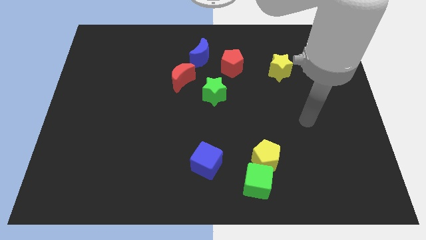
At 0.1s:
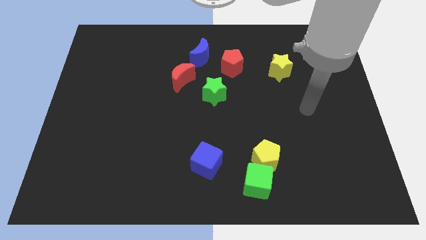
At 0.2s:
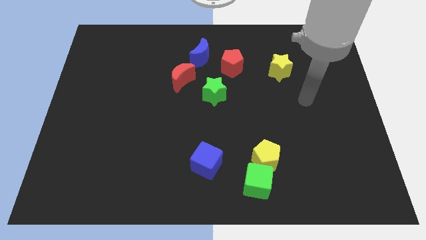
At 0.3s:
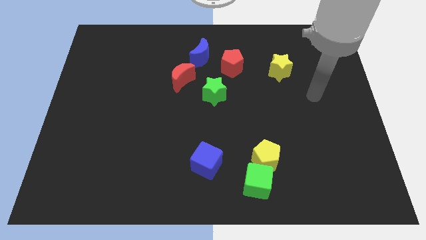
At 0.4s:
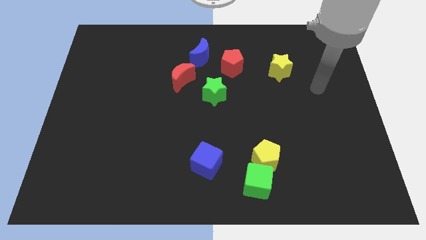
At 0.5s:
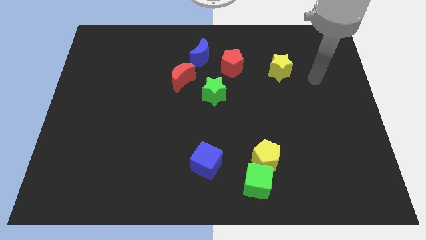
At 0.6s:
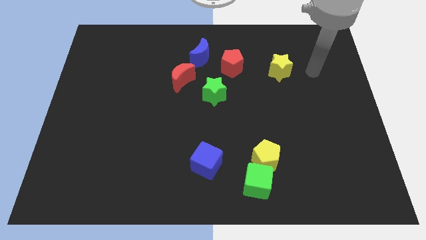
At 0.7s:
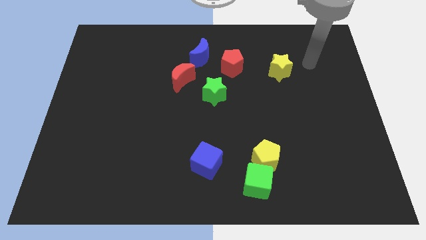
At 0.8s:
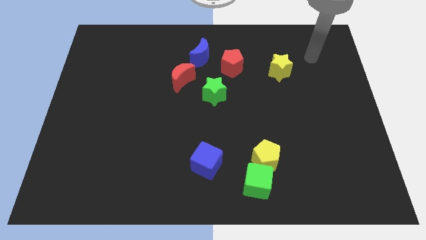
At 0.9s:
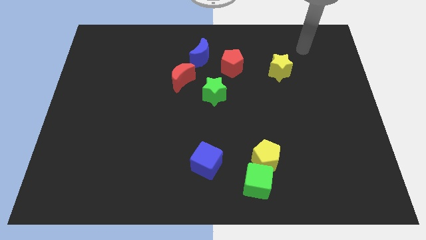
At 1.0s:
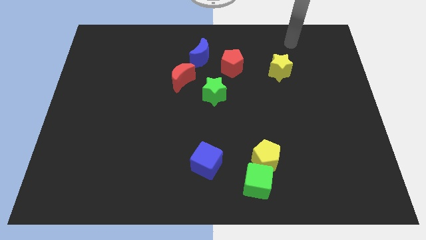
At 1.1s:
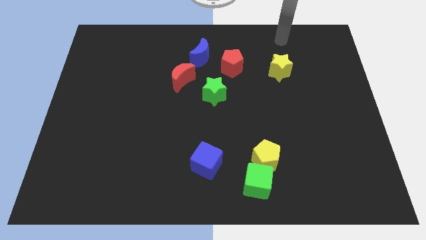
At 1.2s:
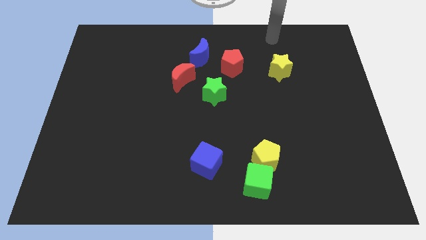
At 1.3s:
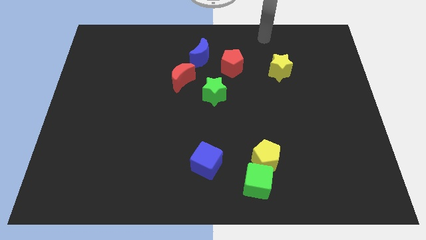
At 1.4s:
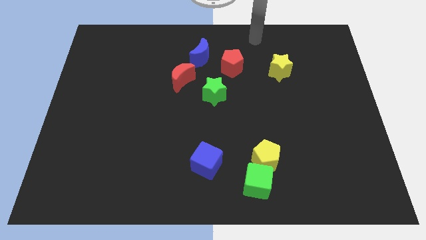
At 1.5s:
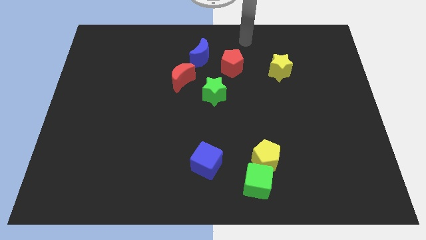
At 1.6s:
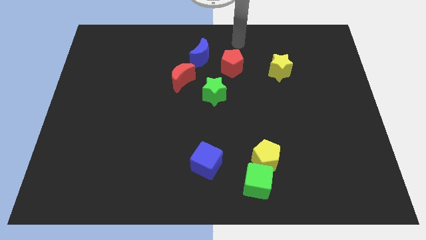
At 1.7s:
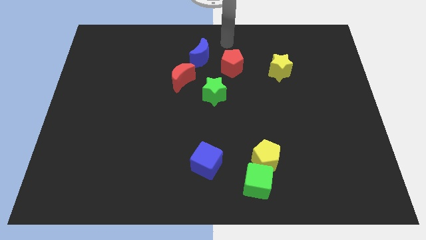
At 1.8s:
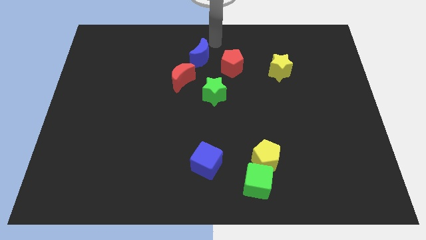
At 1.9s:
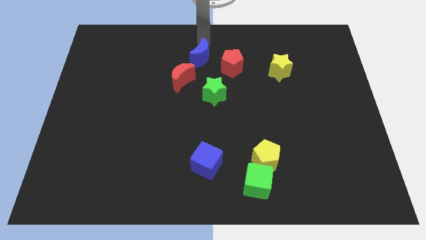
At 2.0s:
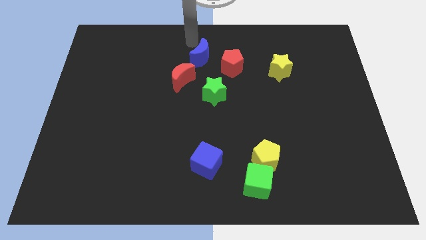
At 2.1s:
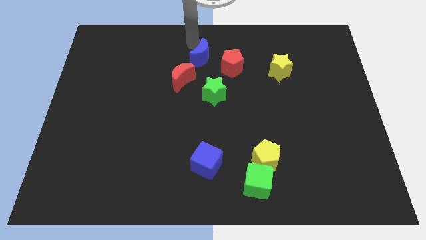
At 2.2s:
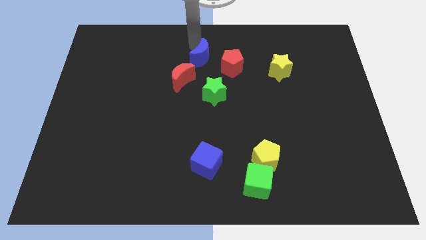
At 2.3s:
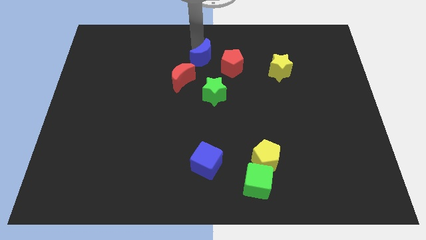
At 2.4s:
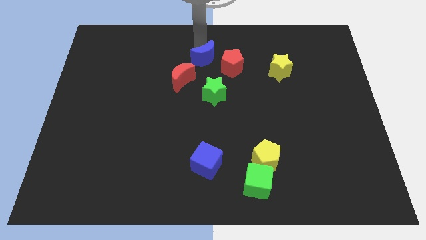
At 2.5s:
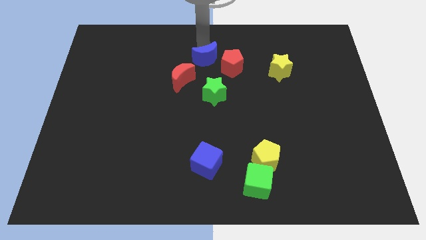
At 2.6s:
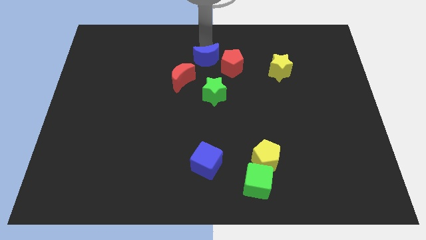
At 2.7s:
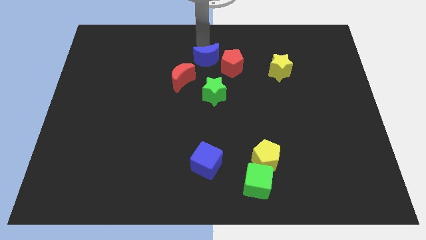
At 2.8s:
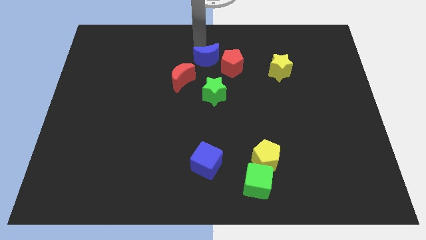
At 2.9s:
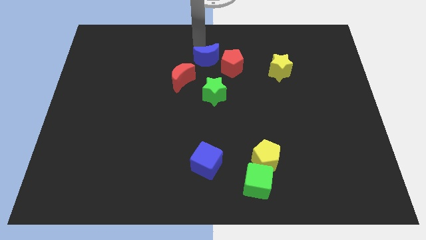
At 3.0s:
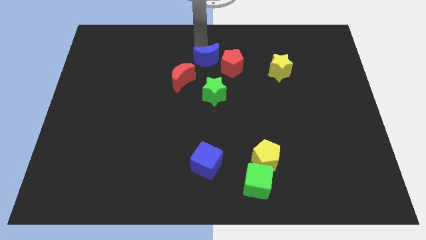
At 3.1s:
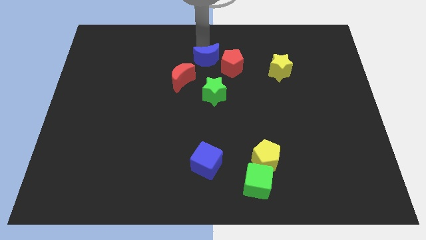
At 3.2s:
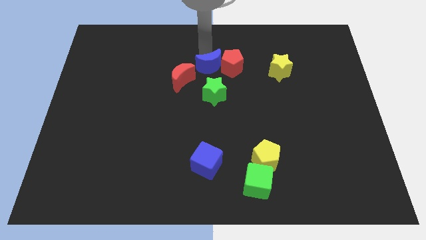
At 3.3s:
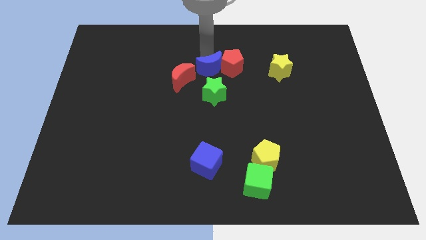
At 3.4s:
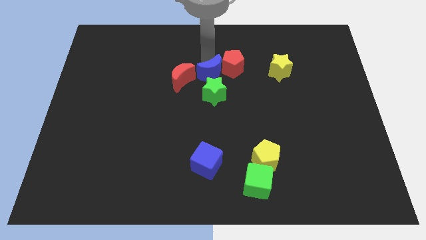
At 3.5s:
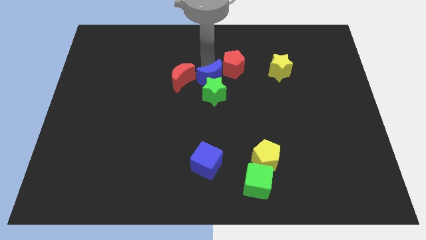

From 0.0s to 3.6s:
slightly push the blue moon diagonally down and to the right

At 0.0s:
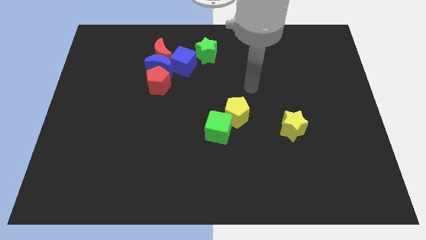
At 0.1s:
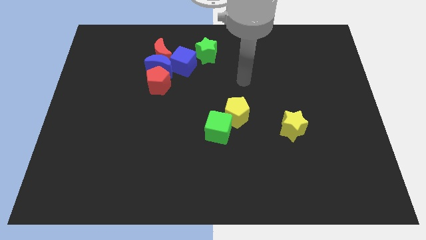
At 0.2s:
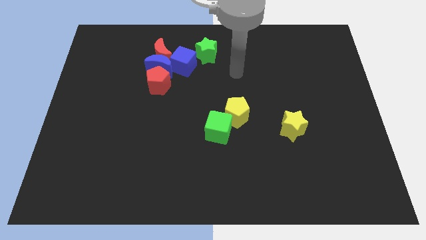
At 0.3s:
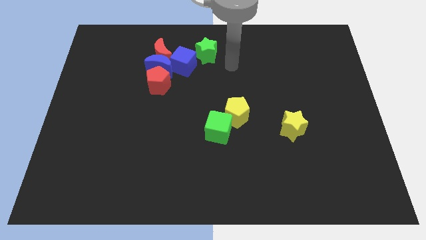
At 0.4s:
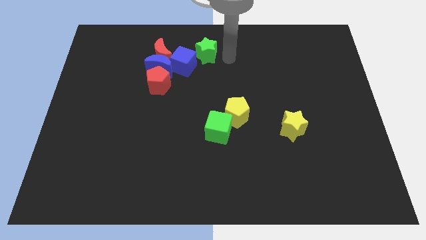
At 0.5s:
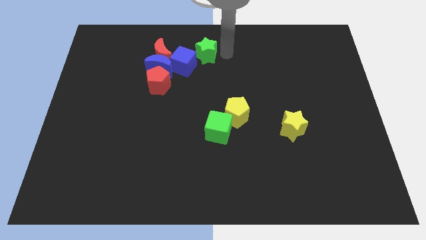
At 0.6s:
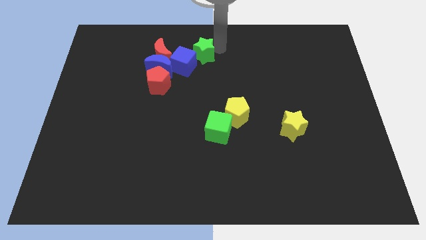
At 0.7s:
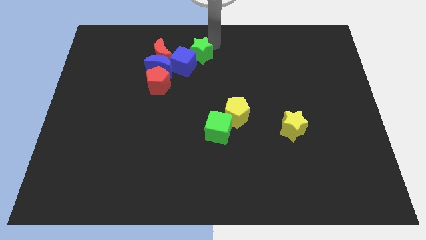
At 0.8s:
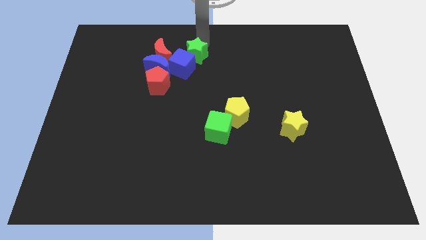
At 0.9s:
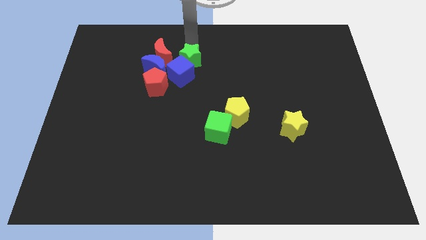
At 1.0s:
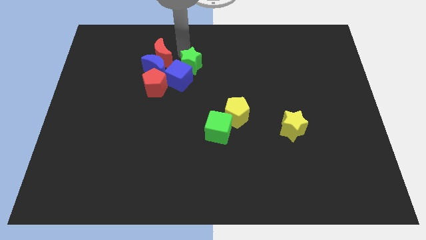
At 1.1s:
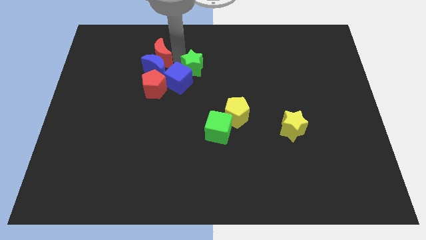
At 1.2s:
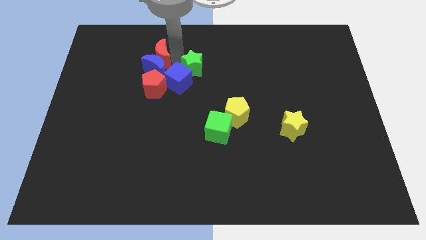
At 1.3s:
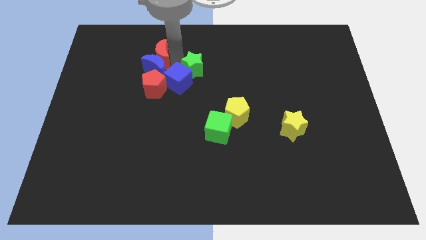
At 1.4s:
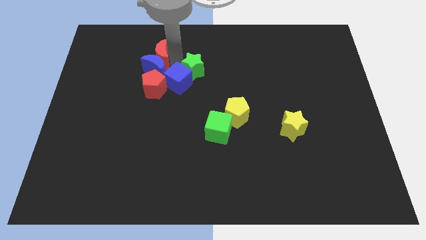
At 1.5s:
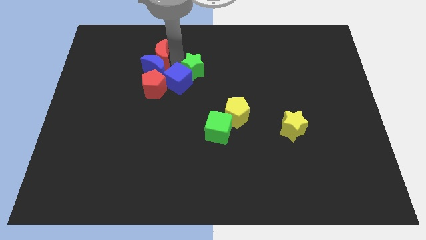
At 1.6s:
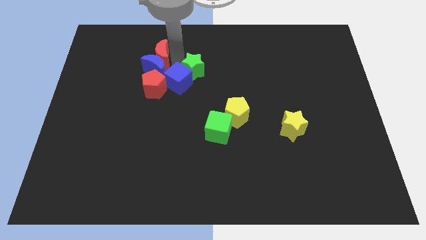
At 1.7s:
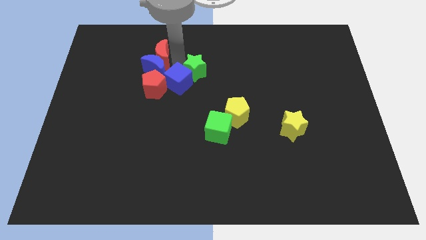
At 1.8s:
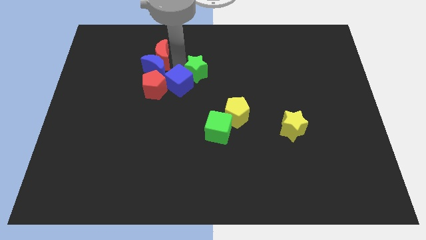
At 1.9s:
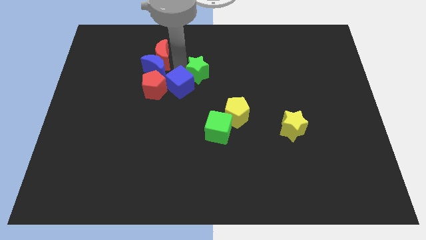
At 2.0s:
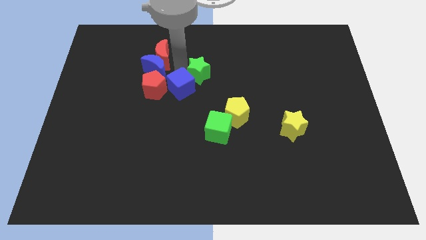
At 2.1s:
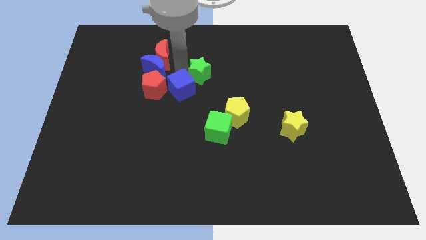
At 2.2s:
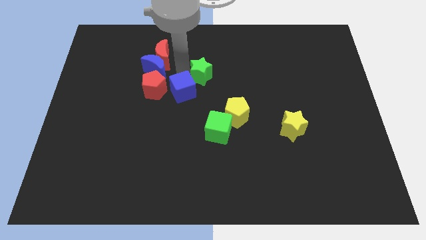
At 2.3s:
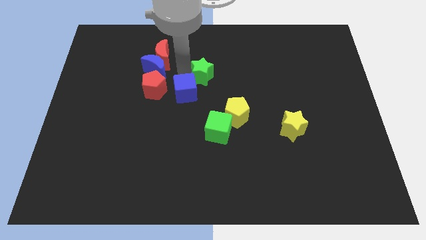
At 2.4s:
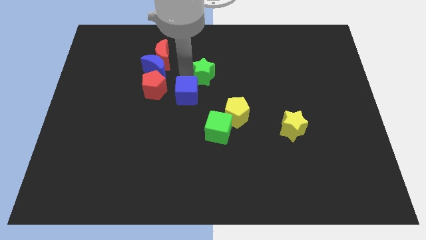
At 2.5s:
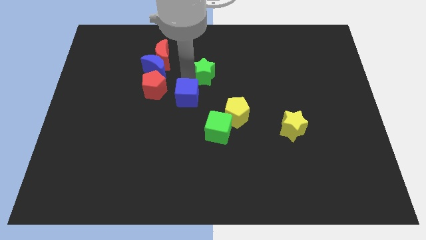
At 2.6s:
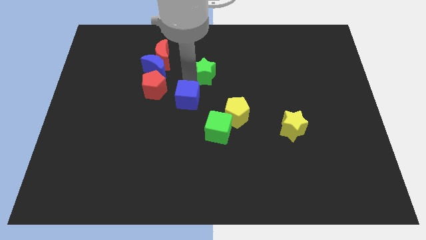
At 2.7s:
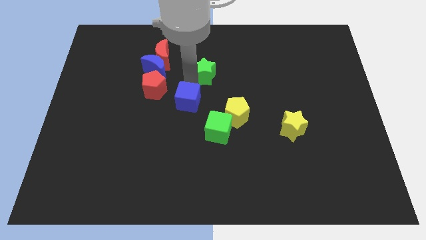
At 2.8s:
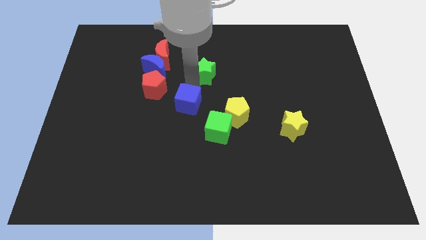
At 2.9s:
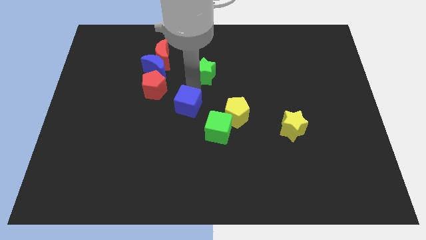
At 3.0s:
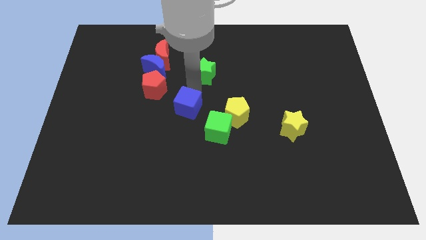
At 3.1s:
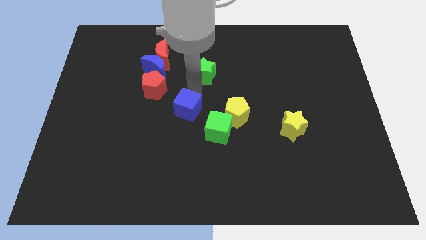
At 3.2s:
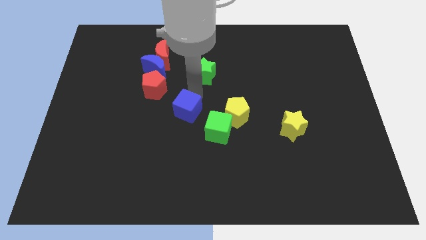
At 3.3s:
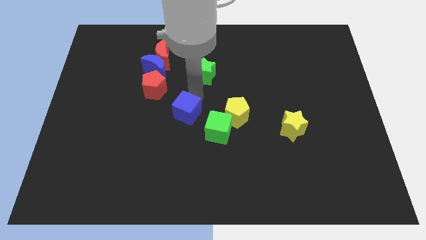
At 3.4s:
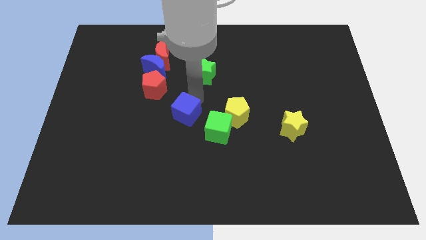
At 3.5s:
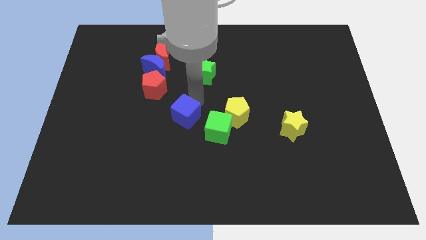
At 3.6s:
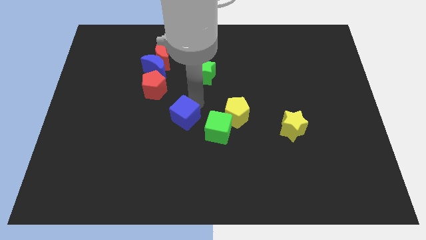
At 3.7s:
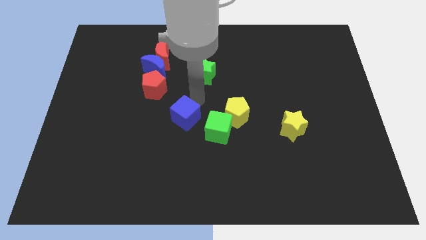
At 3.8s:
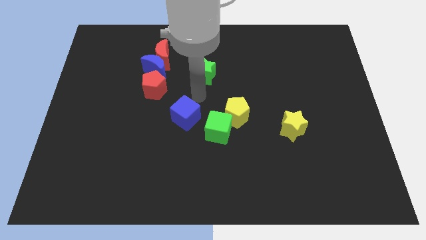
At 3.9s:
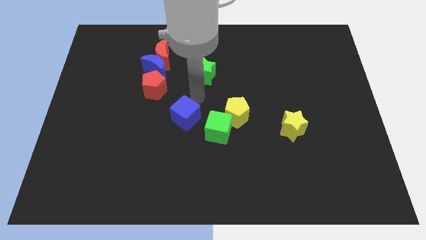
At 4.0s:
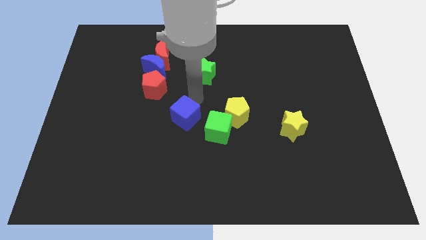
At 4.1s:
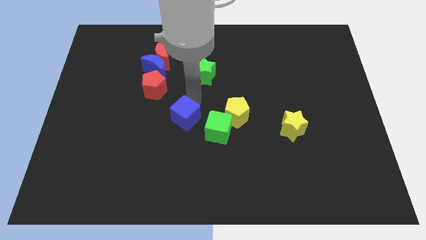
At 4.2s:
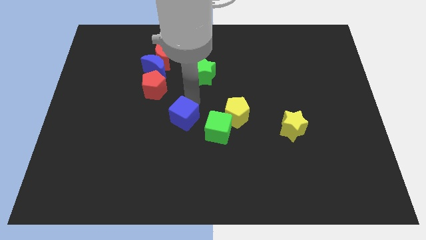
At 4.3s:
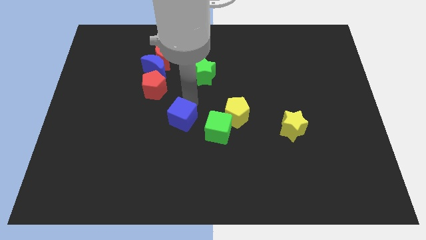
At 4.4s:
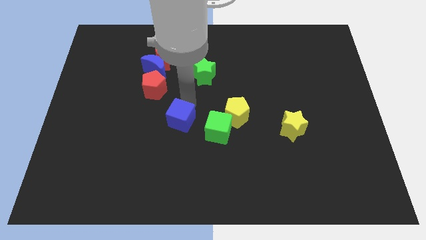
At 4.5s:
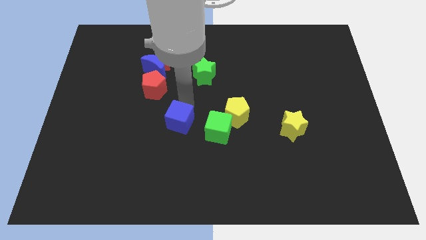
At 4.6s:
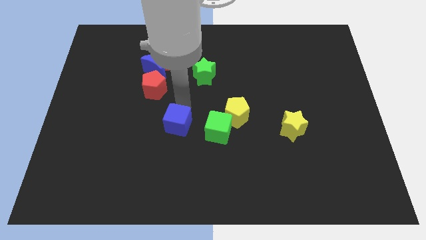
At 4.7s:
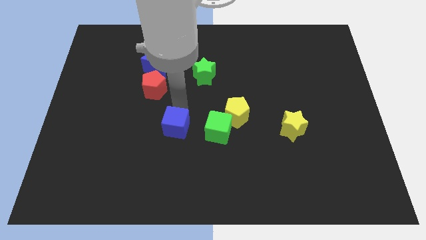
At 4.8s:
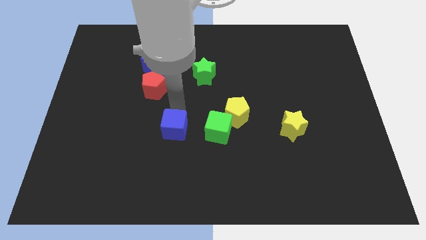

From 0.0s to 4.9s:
slide the blue cube downwards
